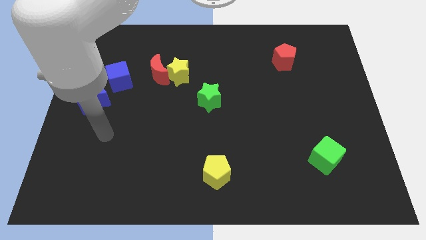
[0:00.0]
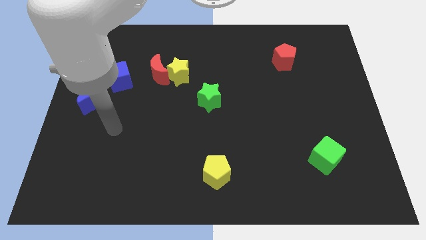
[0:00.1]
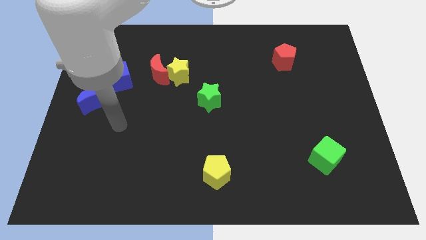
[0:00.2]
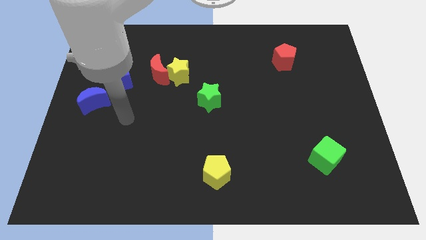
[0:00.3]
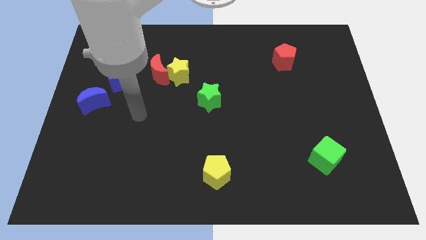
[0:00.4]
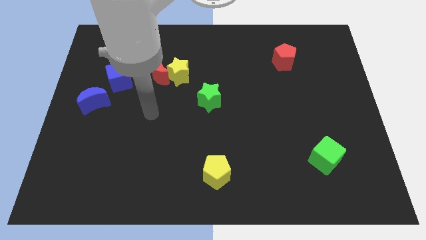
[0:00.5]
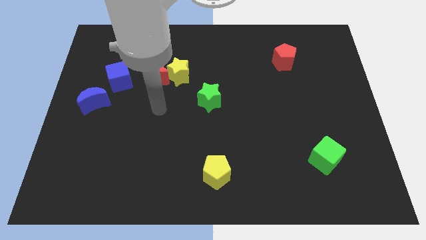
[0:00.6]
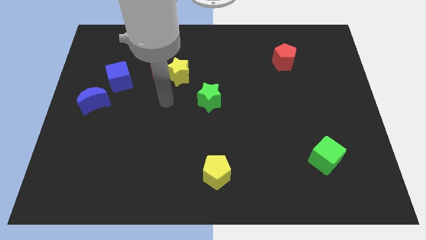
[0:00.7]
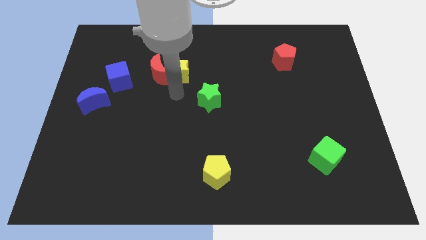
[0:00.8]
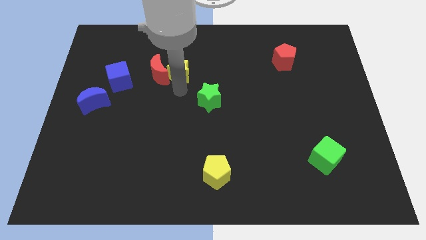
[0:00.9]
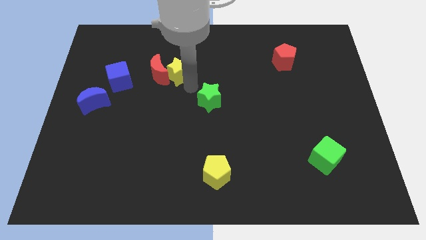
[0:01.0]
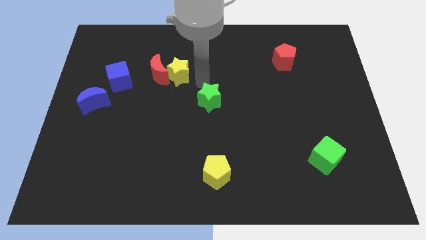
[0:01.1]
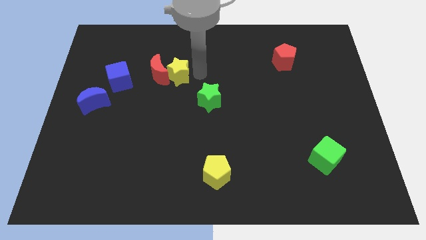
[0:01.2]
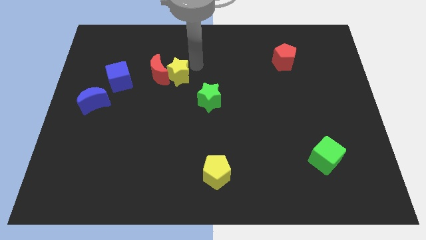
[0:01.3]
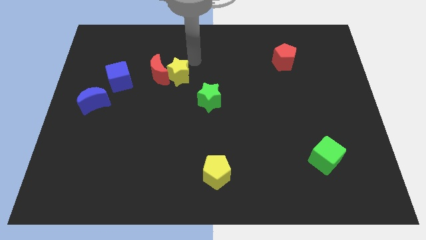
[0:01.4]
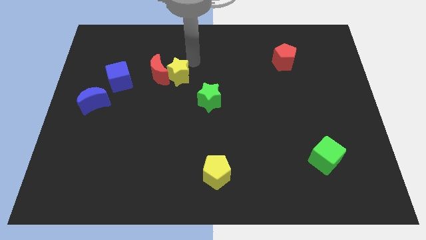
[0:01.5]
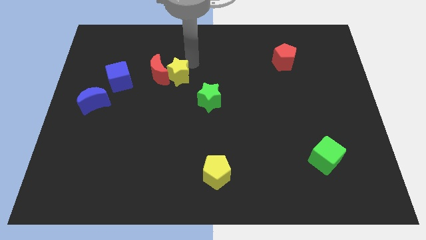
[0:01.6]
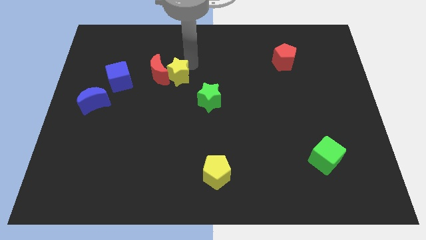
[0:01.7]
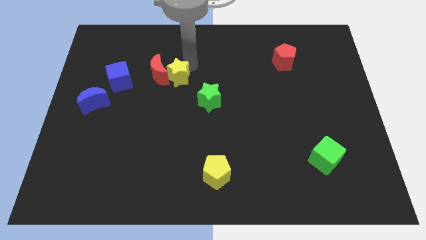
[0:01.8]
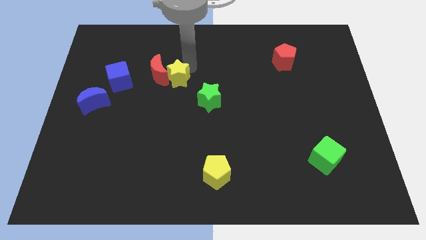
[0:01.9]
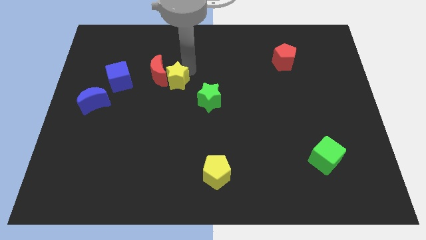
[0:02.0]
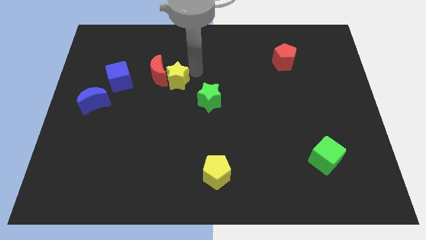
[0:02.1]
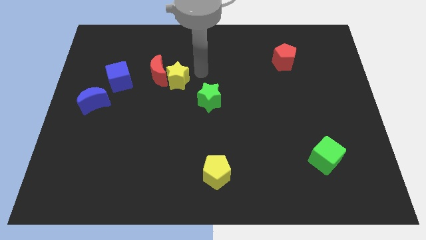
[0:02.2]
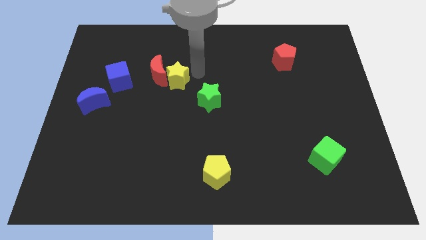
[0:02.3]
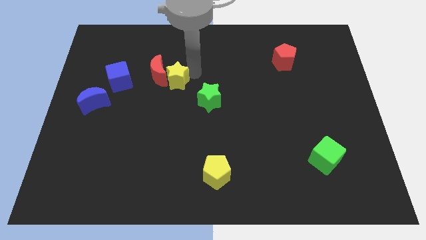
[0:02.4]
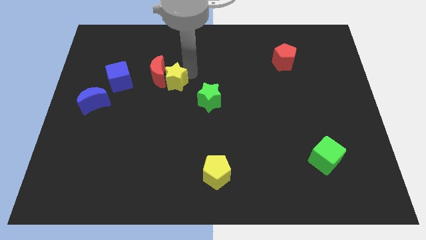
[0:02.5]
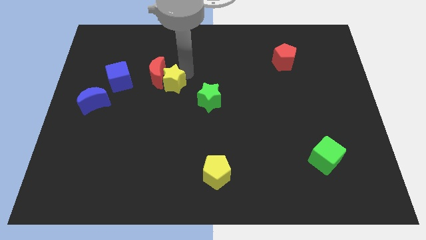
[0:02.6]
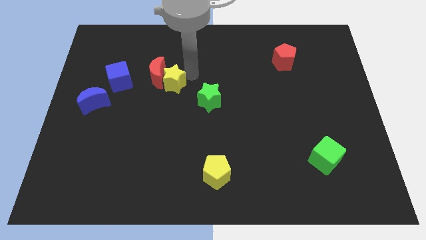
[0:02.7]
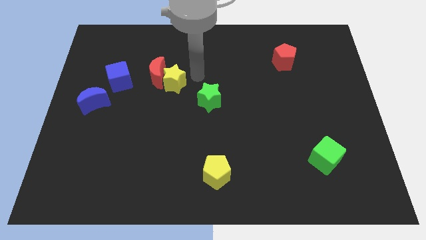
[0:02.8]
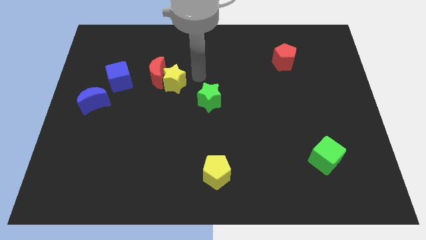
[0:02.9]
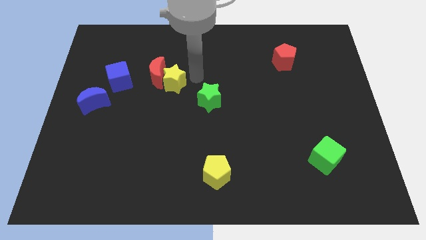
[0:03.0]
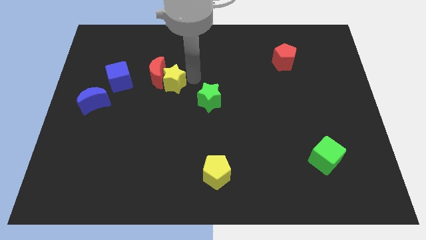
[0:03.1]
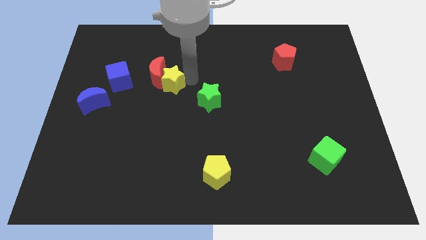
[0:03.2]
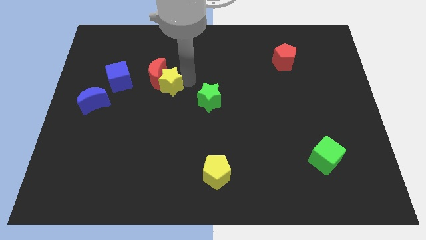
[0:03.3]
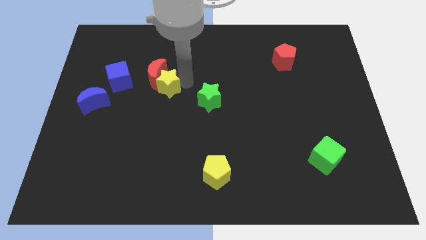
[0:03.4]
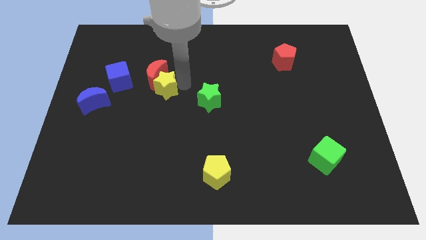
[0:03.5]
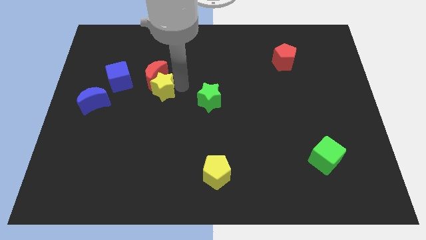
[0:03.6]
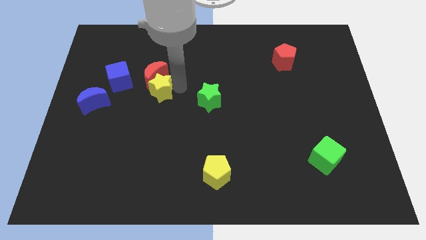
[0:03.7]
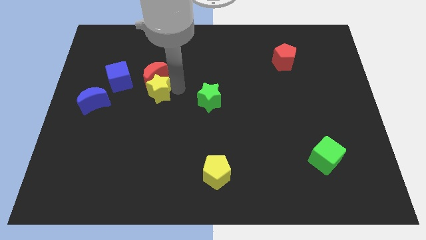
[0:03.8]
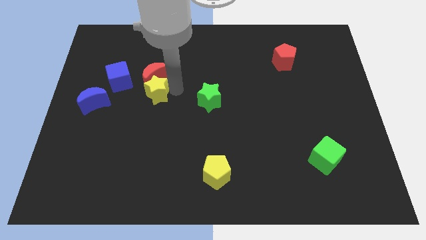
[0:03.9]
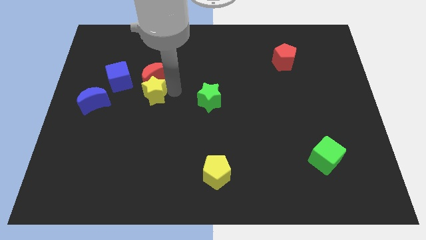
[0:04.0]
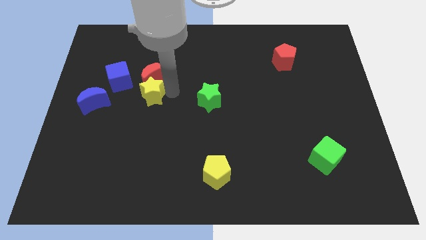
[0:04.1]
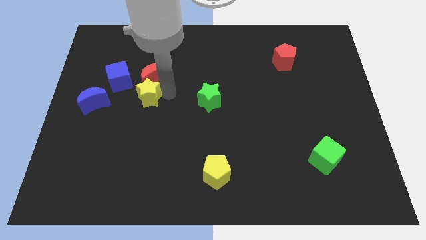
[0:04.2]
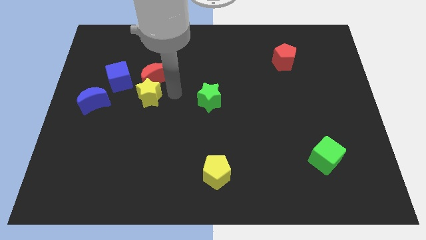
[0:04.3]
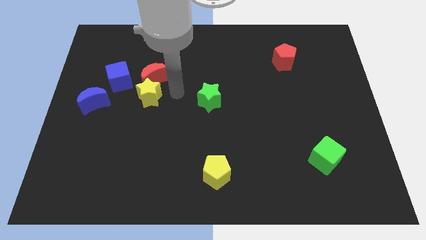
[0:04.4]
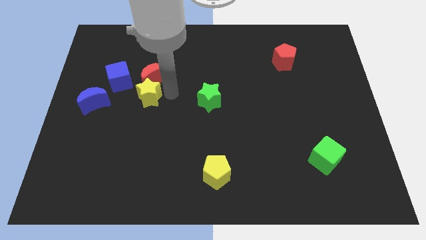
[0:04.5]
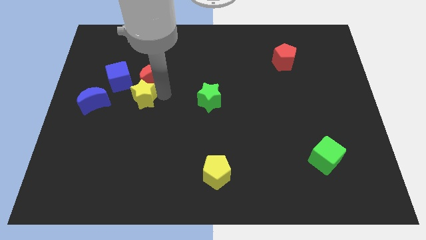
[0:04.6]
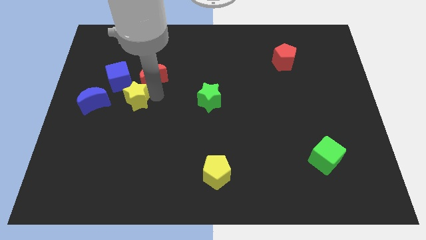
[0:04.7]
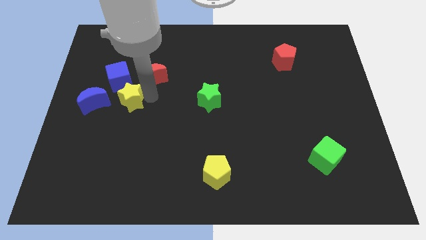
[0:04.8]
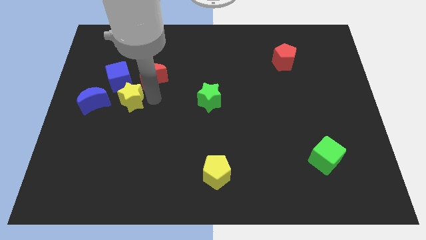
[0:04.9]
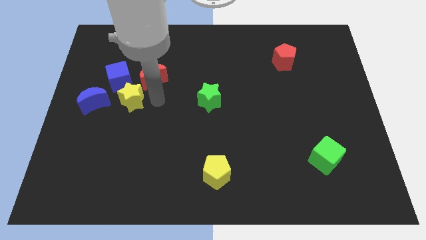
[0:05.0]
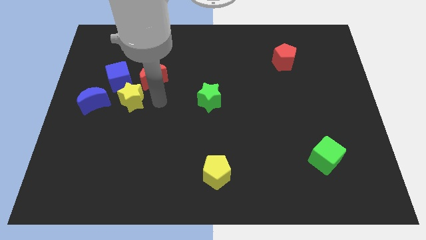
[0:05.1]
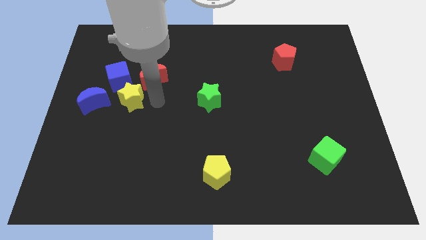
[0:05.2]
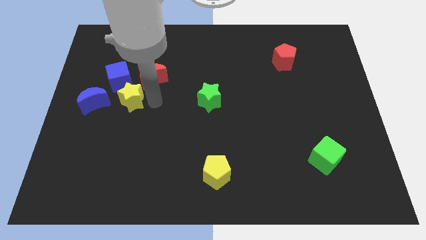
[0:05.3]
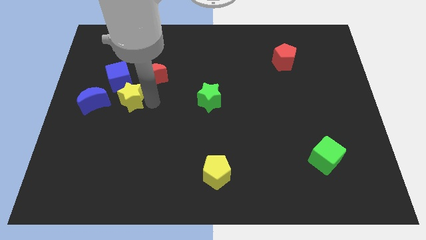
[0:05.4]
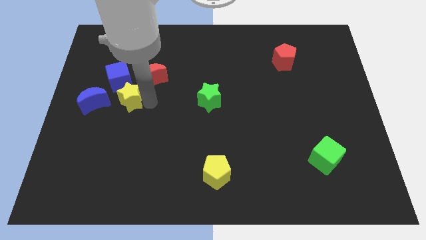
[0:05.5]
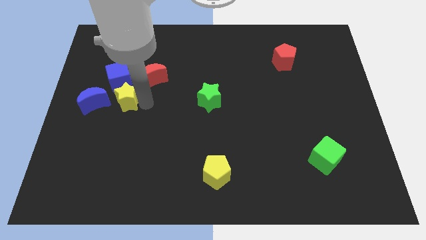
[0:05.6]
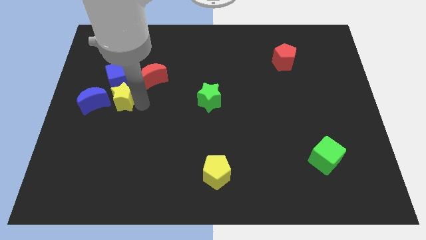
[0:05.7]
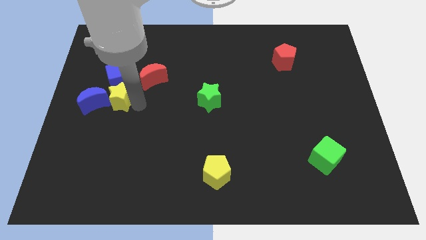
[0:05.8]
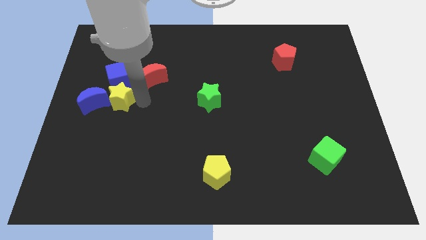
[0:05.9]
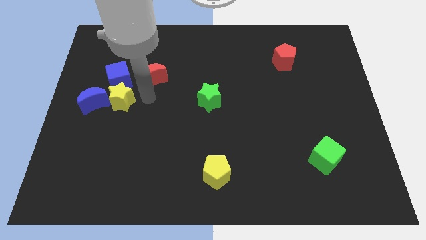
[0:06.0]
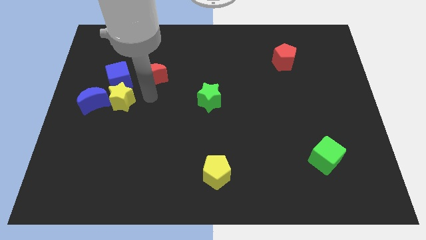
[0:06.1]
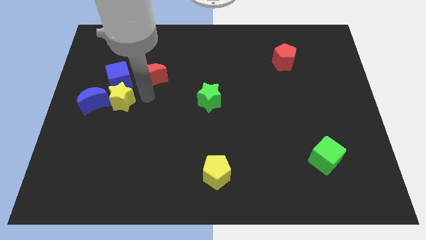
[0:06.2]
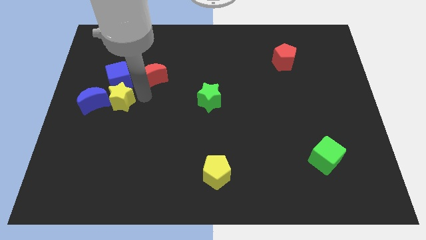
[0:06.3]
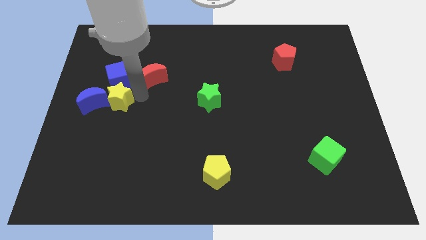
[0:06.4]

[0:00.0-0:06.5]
move the yellow star close to the blue moon
